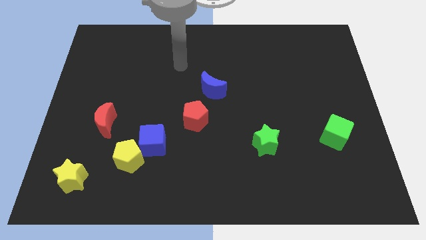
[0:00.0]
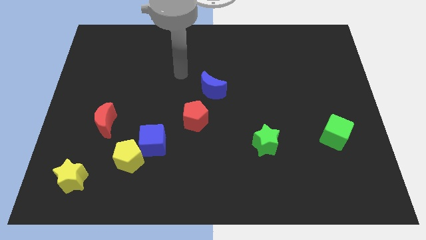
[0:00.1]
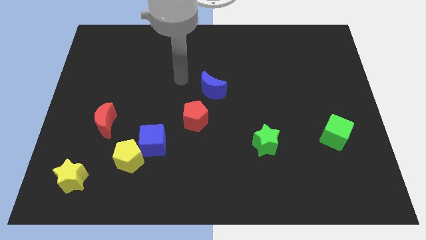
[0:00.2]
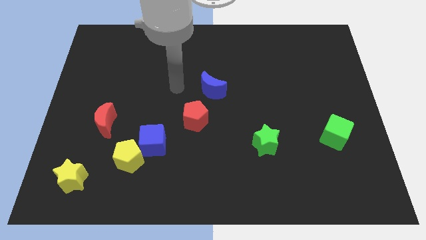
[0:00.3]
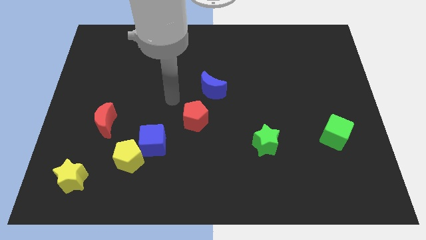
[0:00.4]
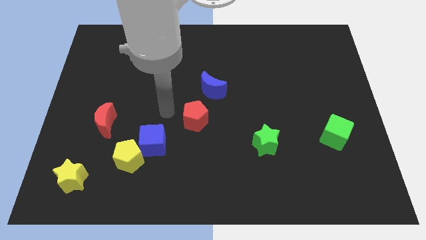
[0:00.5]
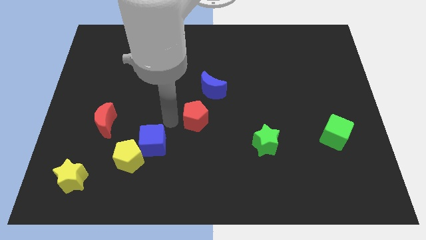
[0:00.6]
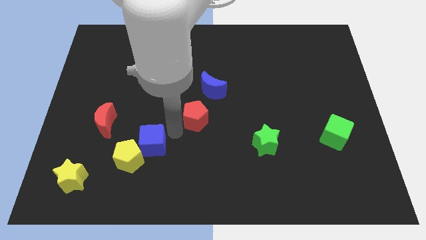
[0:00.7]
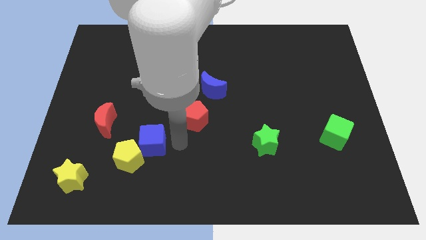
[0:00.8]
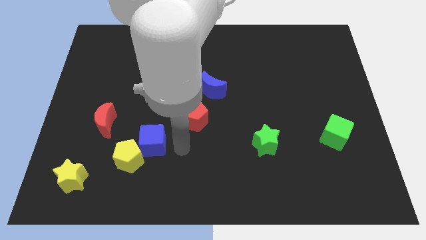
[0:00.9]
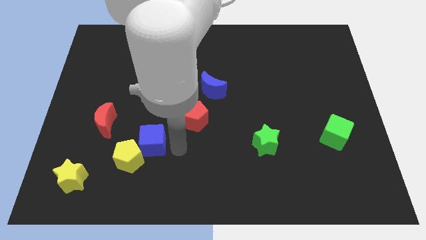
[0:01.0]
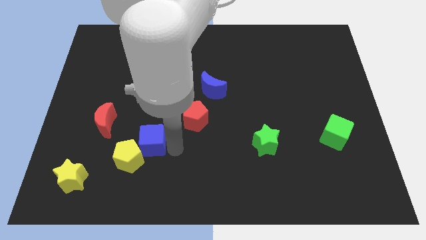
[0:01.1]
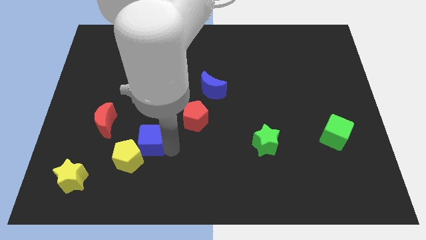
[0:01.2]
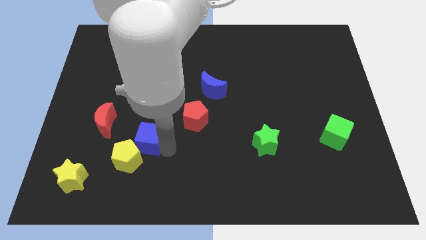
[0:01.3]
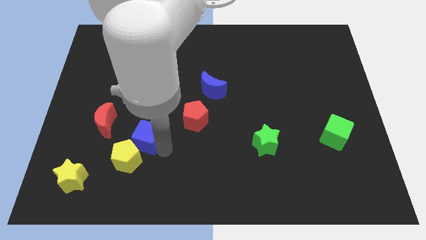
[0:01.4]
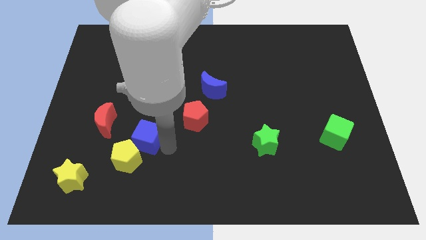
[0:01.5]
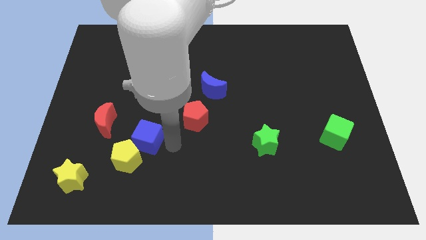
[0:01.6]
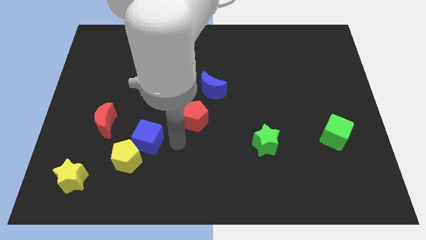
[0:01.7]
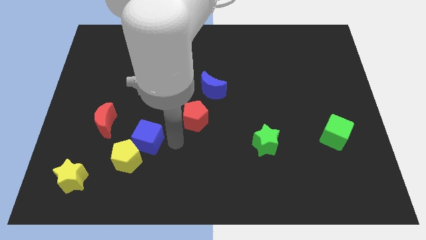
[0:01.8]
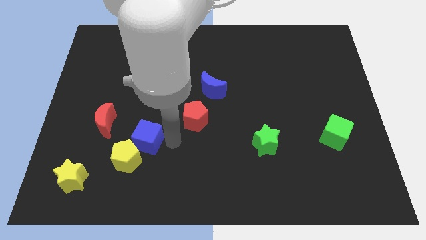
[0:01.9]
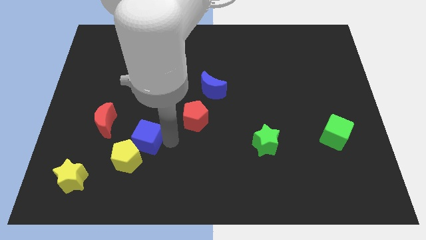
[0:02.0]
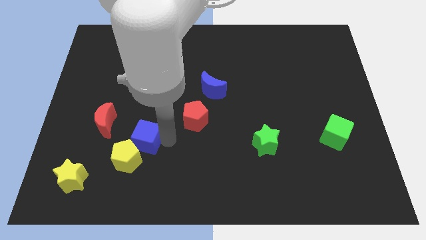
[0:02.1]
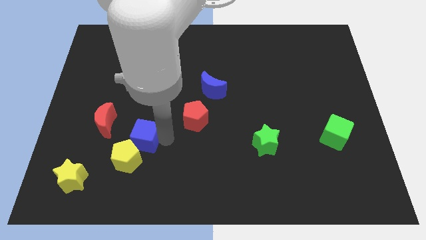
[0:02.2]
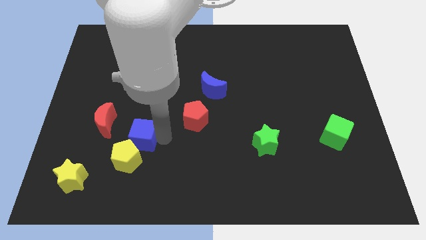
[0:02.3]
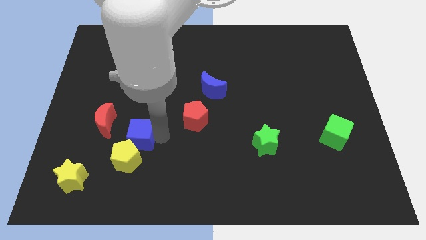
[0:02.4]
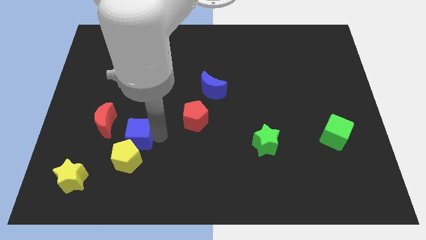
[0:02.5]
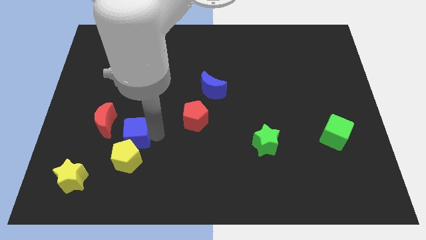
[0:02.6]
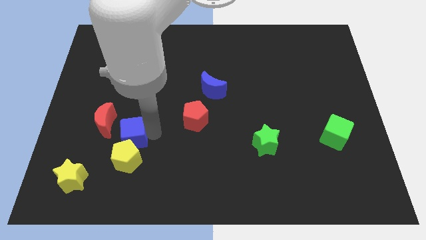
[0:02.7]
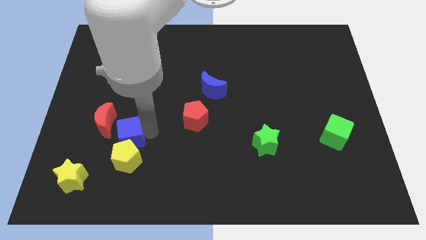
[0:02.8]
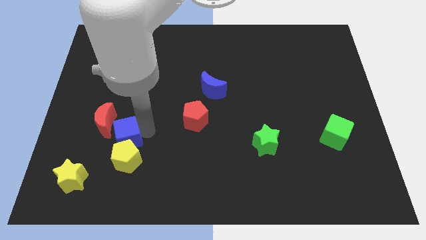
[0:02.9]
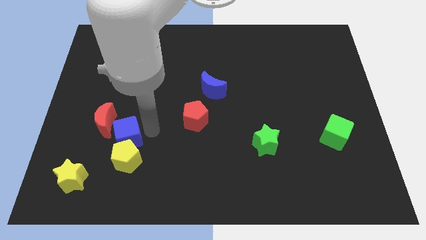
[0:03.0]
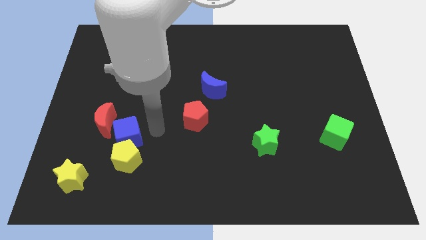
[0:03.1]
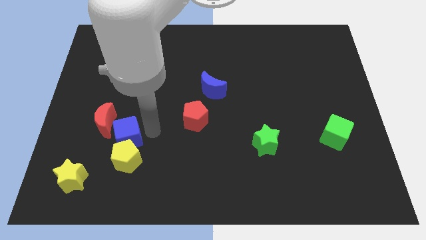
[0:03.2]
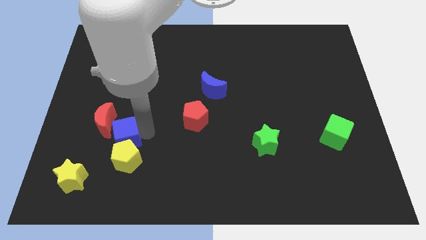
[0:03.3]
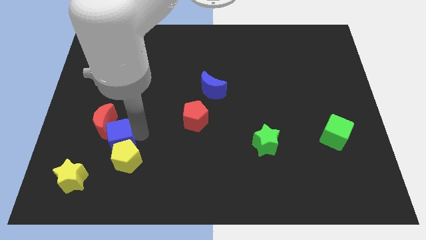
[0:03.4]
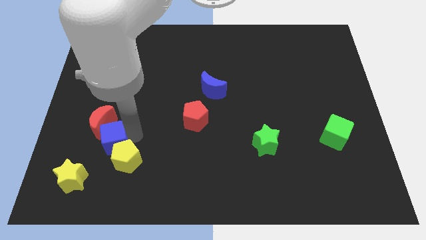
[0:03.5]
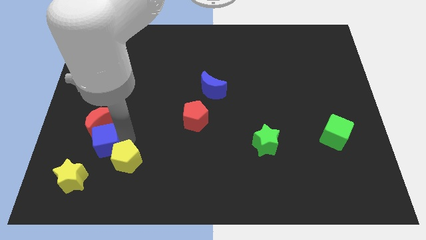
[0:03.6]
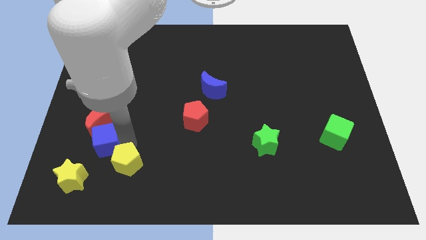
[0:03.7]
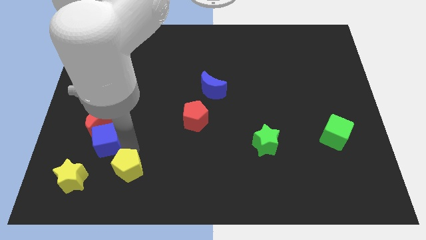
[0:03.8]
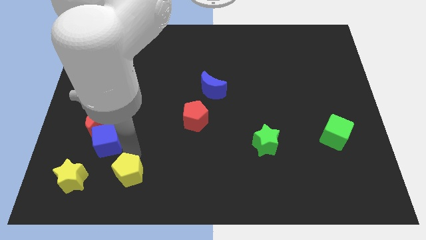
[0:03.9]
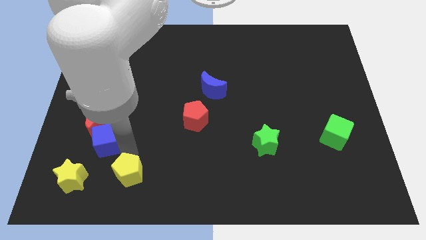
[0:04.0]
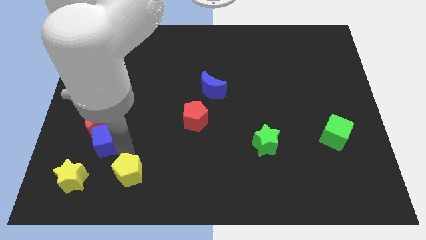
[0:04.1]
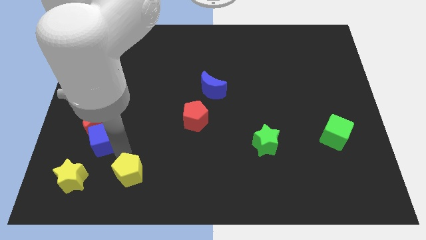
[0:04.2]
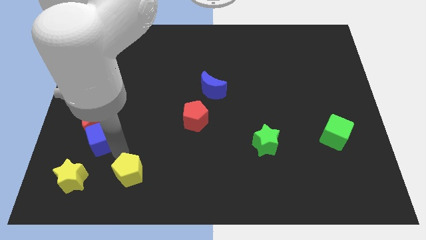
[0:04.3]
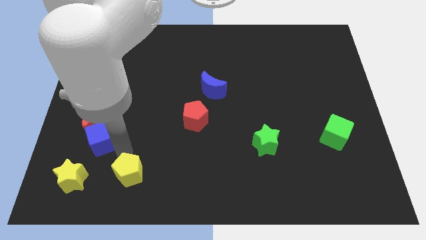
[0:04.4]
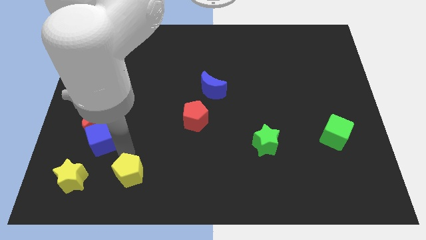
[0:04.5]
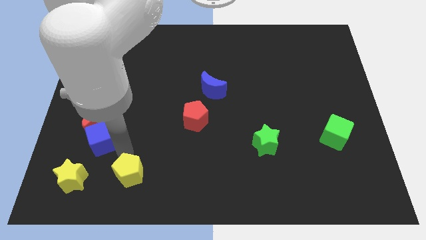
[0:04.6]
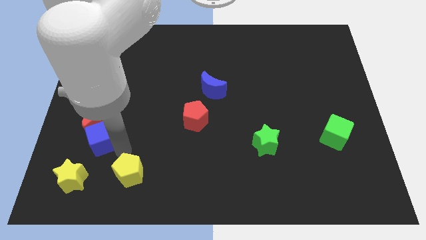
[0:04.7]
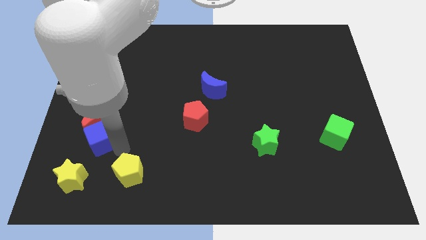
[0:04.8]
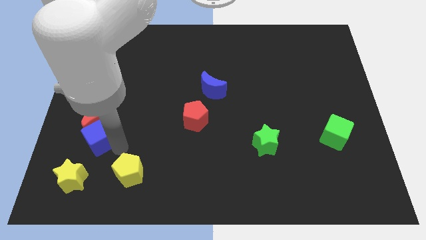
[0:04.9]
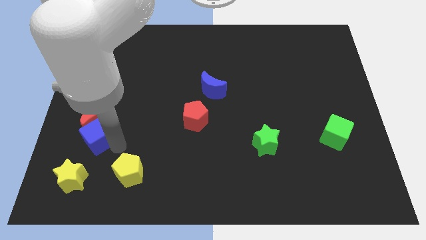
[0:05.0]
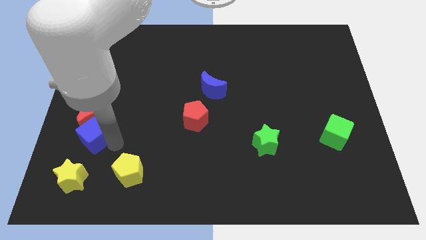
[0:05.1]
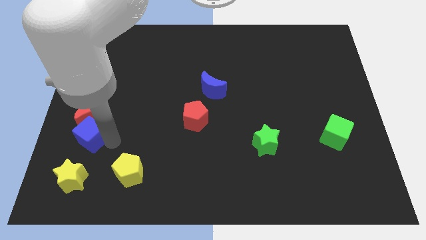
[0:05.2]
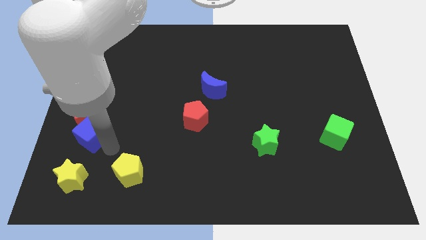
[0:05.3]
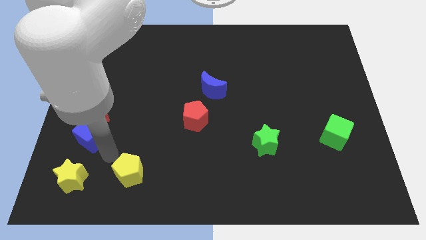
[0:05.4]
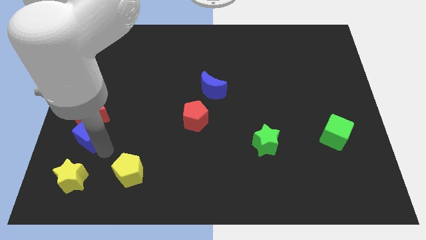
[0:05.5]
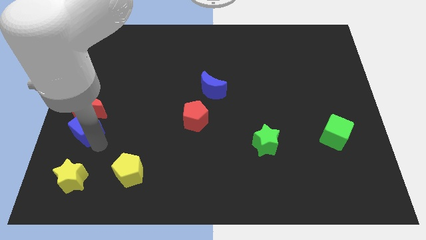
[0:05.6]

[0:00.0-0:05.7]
put the blue cube to the left side
